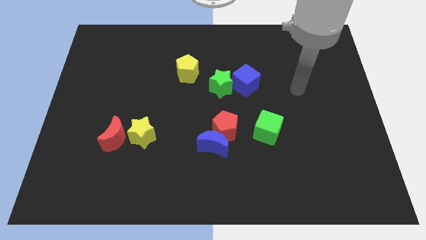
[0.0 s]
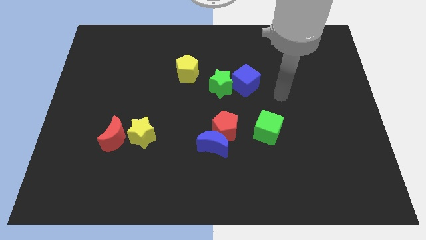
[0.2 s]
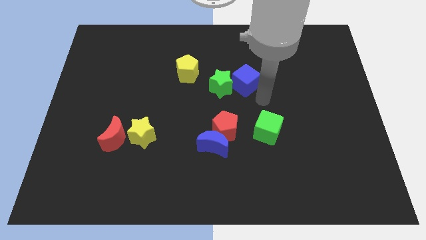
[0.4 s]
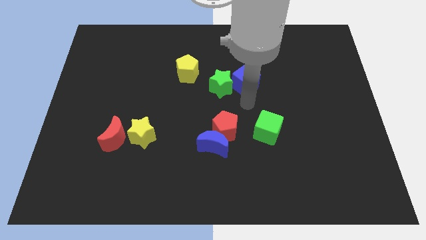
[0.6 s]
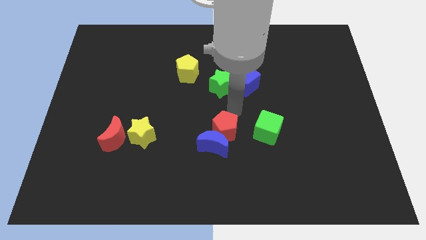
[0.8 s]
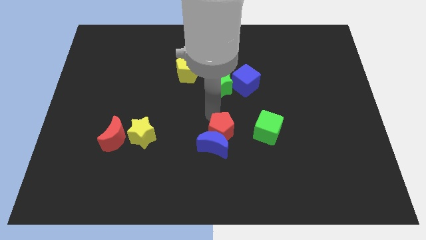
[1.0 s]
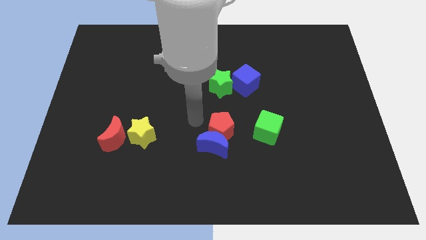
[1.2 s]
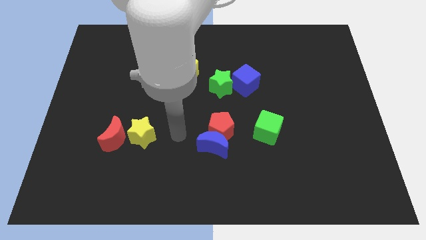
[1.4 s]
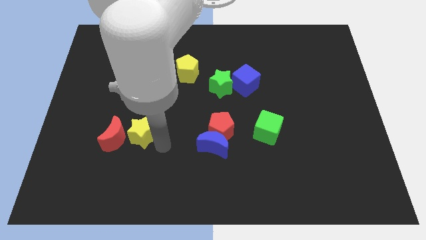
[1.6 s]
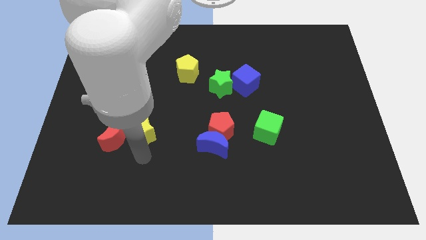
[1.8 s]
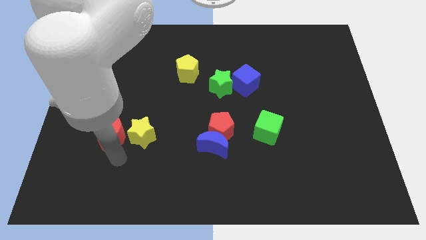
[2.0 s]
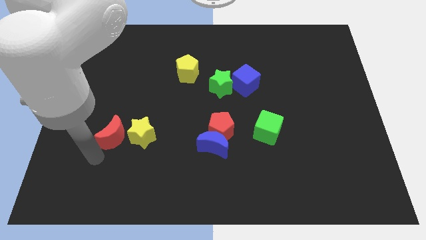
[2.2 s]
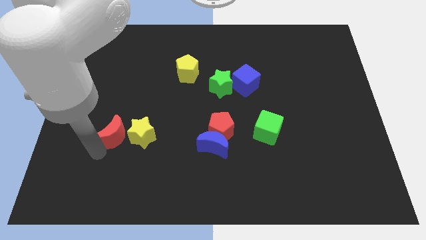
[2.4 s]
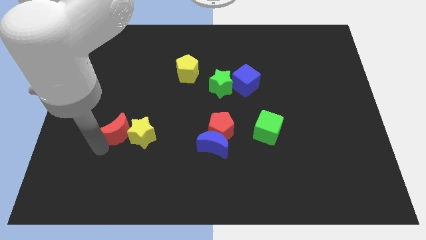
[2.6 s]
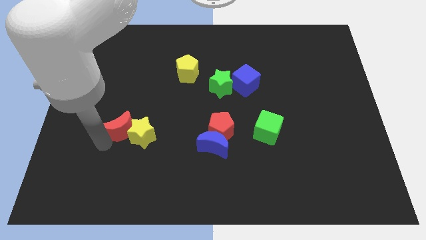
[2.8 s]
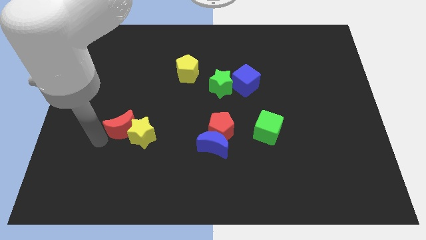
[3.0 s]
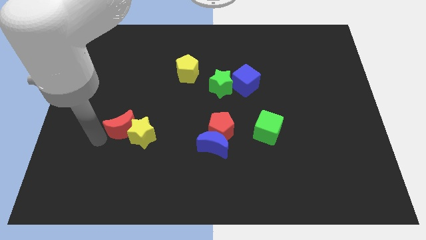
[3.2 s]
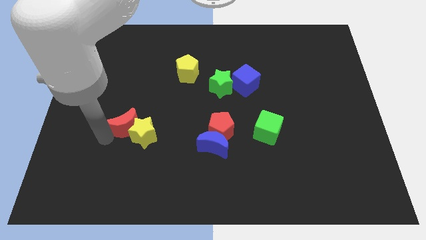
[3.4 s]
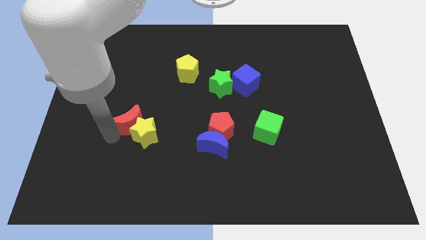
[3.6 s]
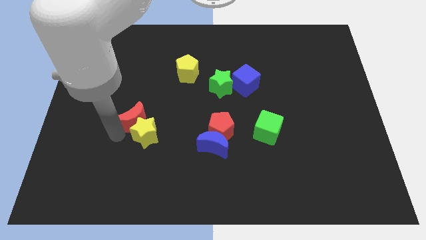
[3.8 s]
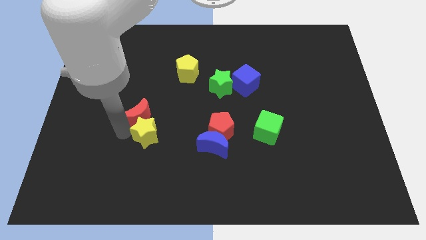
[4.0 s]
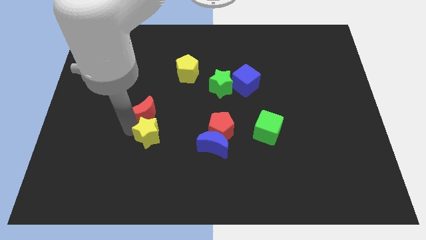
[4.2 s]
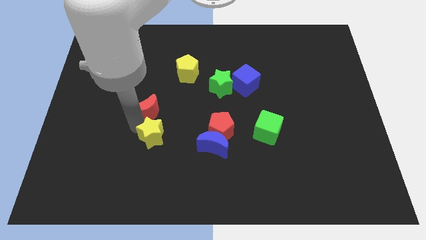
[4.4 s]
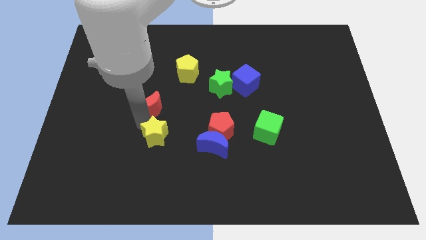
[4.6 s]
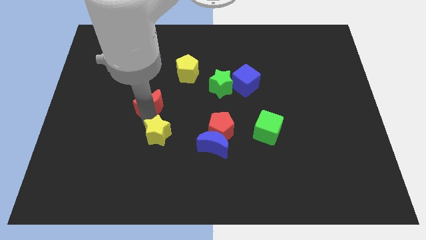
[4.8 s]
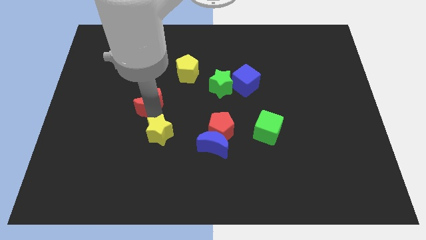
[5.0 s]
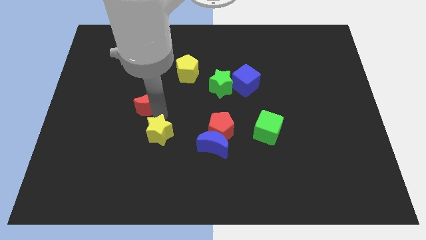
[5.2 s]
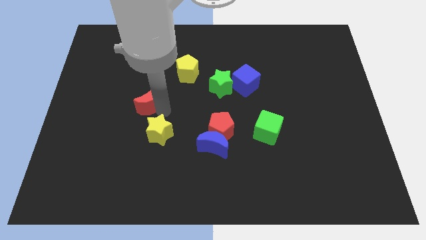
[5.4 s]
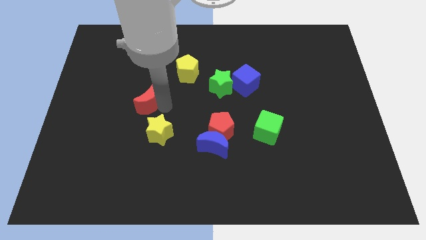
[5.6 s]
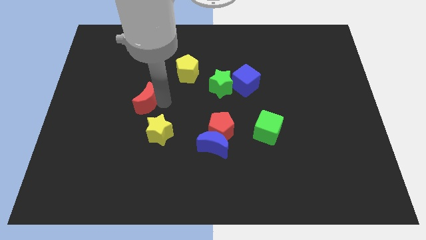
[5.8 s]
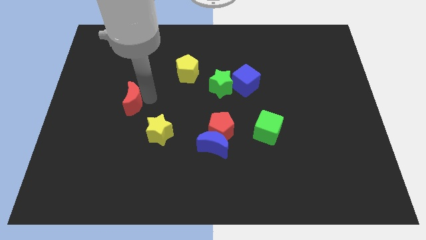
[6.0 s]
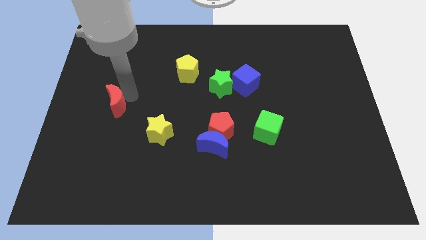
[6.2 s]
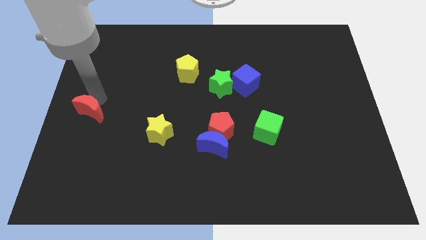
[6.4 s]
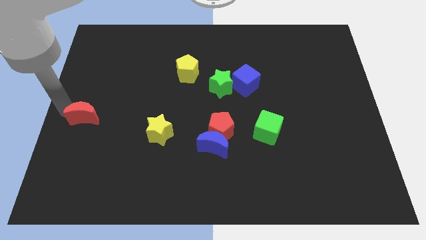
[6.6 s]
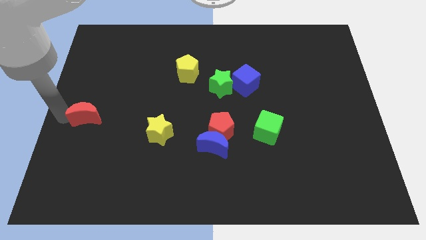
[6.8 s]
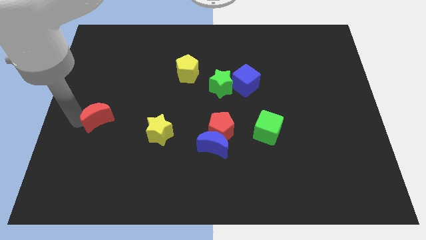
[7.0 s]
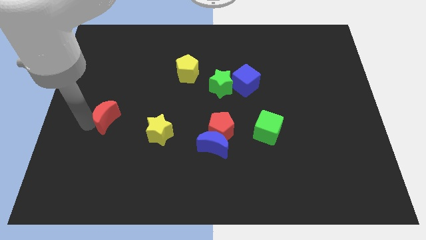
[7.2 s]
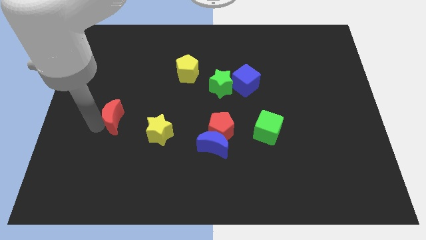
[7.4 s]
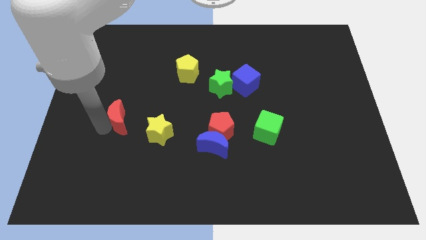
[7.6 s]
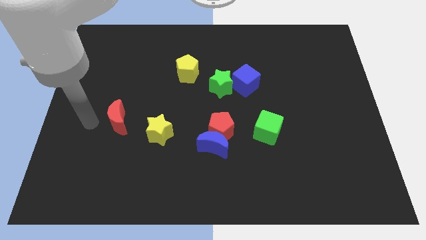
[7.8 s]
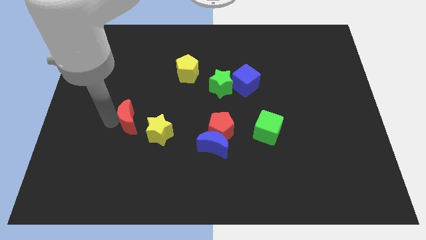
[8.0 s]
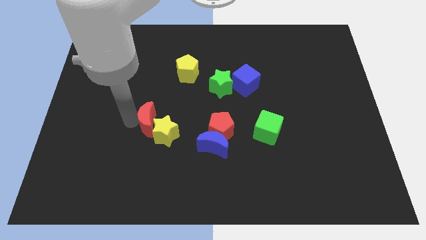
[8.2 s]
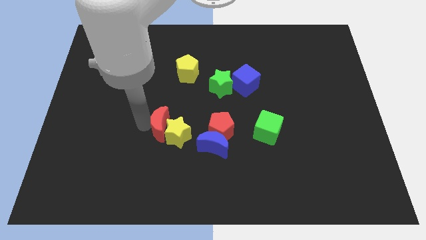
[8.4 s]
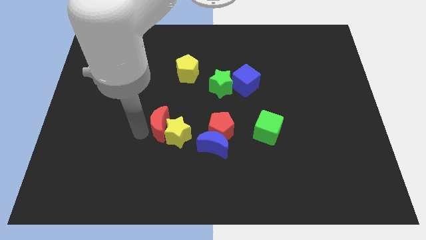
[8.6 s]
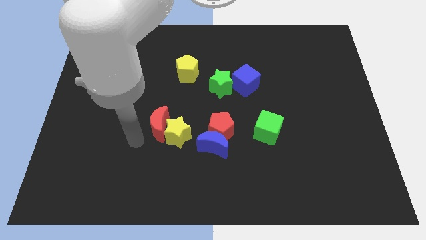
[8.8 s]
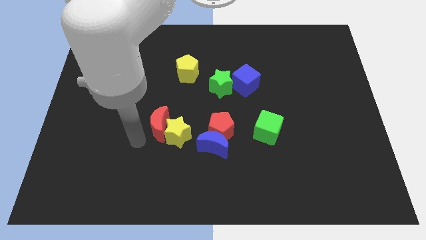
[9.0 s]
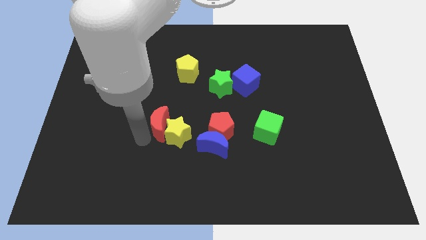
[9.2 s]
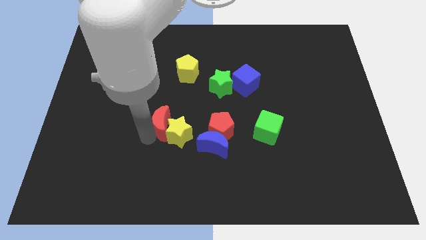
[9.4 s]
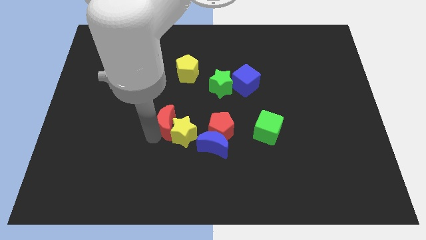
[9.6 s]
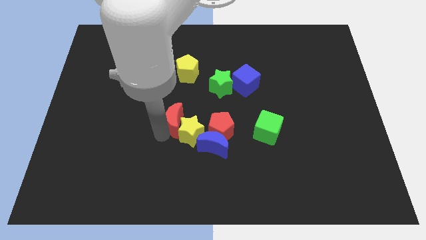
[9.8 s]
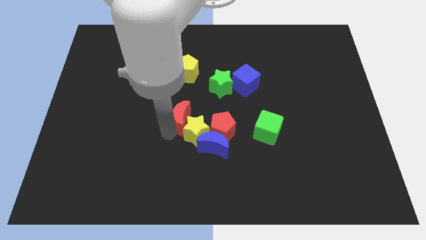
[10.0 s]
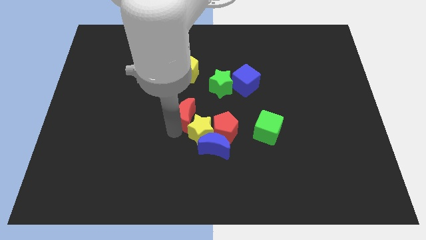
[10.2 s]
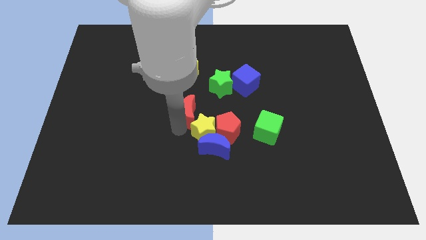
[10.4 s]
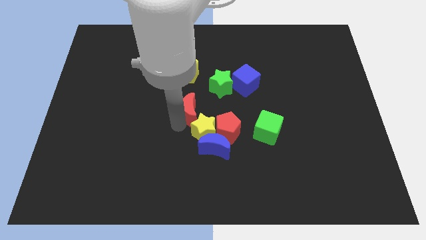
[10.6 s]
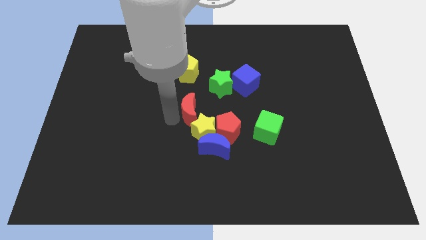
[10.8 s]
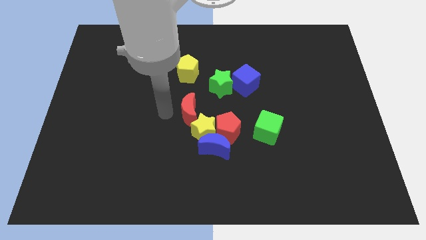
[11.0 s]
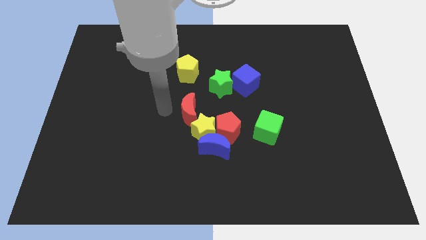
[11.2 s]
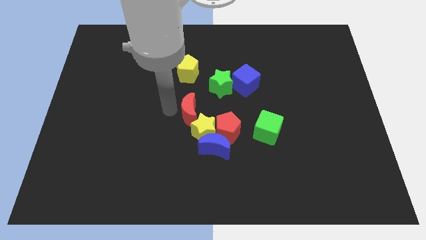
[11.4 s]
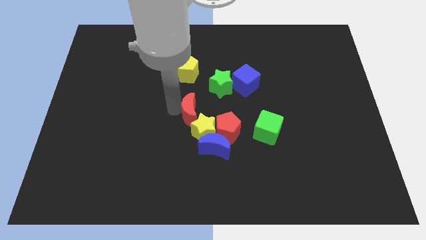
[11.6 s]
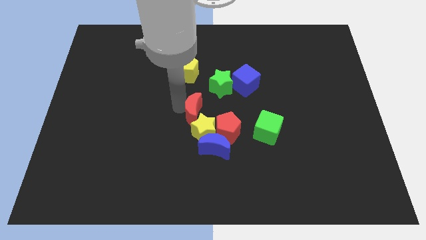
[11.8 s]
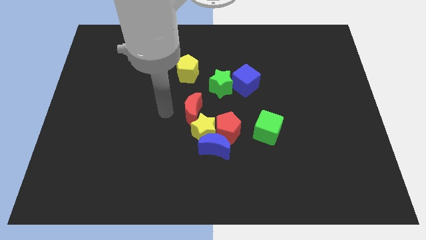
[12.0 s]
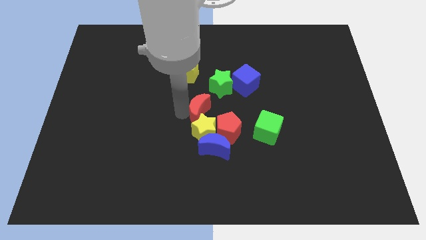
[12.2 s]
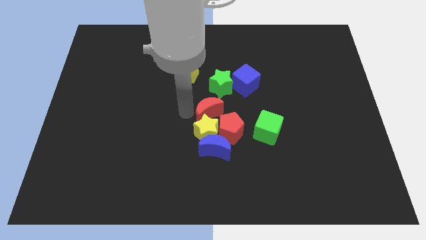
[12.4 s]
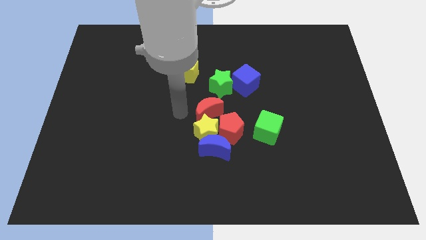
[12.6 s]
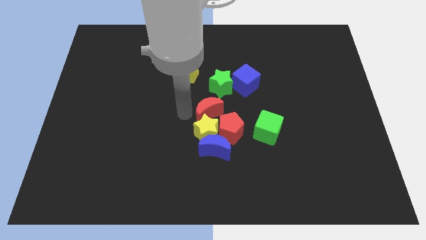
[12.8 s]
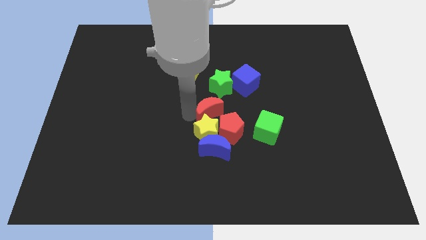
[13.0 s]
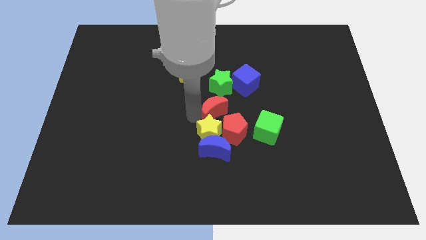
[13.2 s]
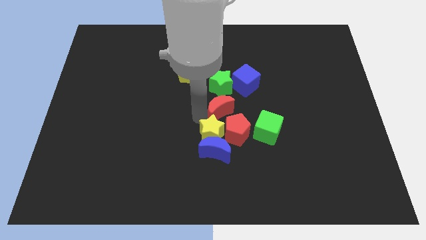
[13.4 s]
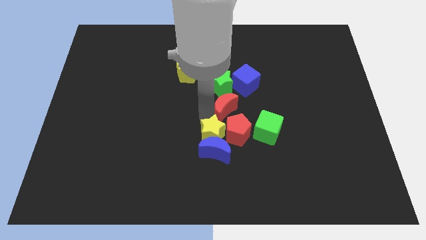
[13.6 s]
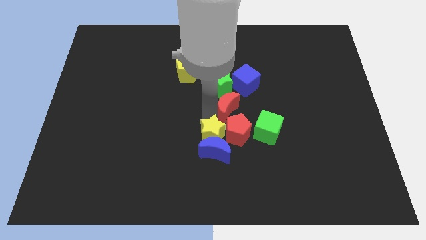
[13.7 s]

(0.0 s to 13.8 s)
put the red moon below the blue cube

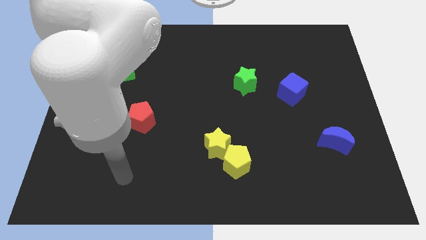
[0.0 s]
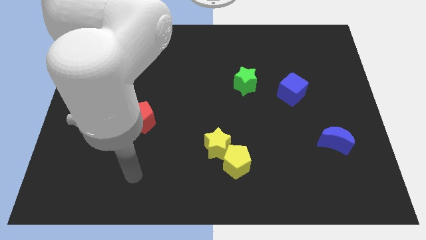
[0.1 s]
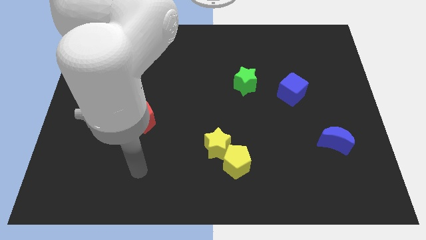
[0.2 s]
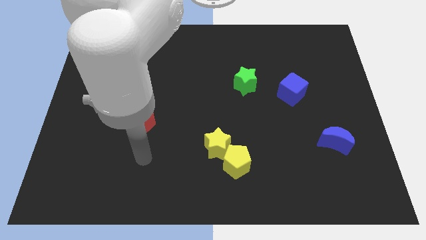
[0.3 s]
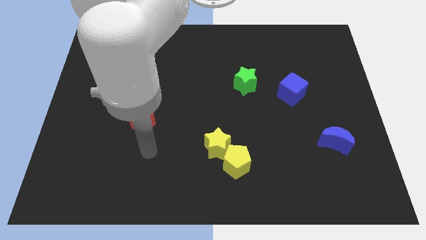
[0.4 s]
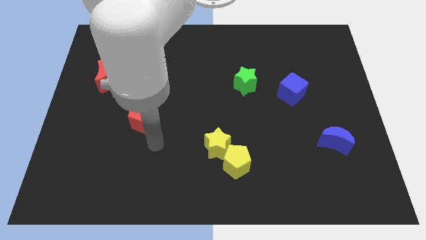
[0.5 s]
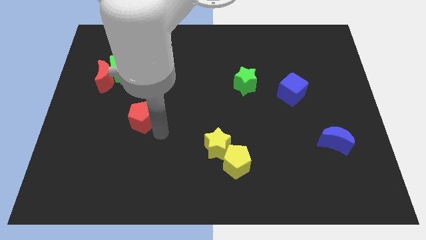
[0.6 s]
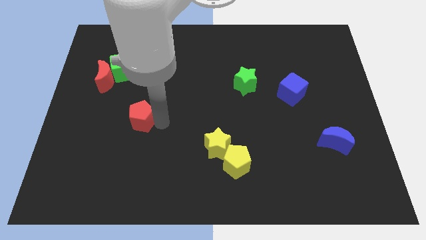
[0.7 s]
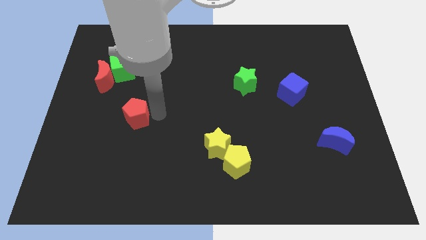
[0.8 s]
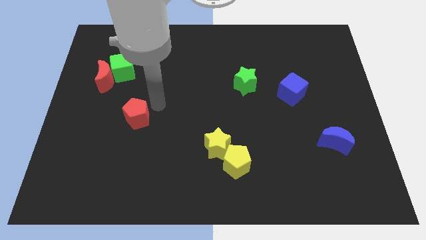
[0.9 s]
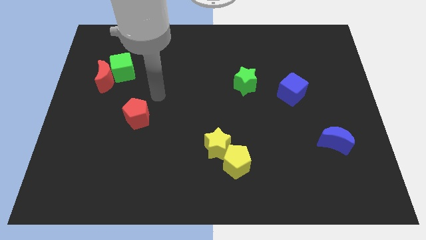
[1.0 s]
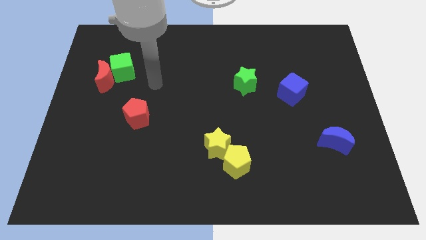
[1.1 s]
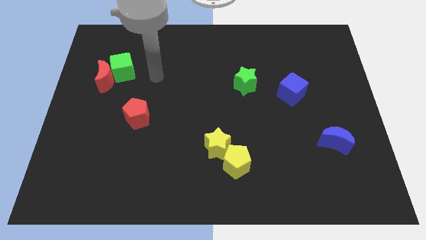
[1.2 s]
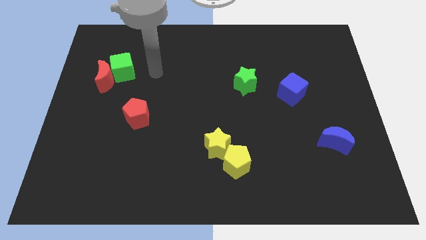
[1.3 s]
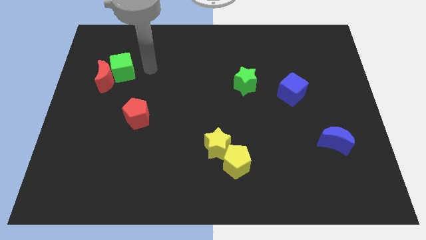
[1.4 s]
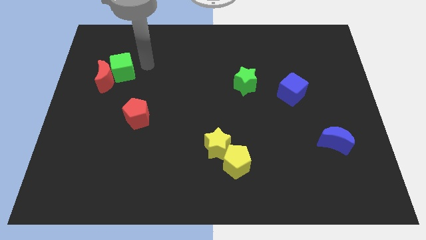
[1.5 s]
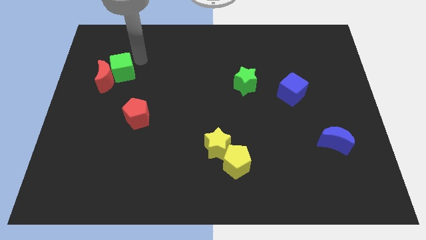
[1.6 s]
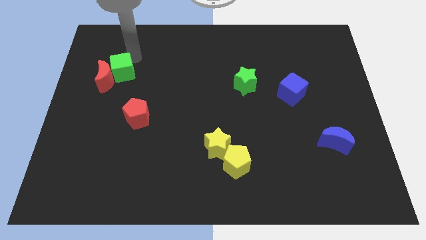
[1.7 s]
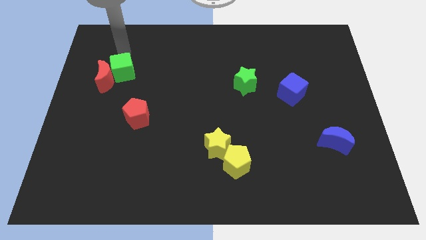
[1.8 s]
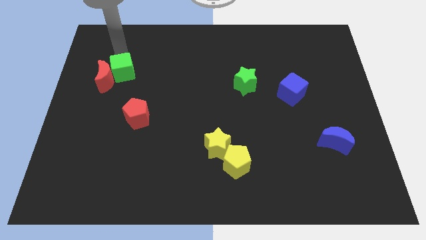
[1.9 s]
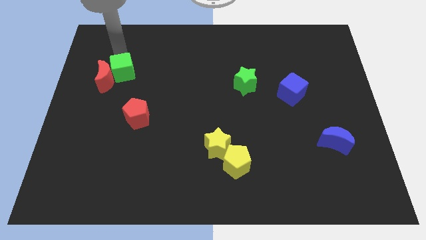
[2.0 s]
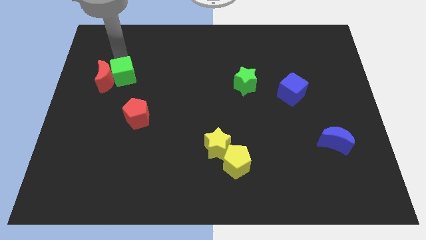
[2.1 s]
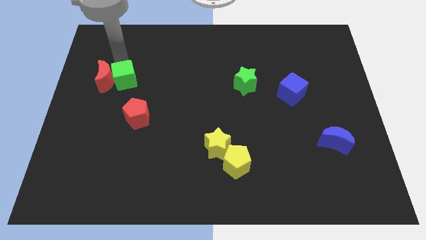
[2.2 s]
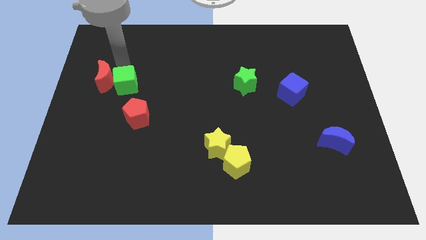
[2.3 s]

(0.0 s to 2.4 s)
move the green cube to the top left side of the red pentagon
